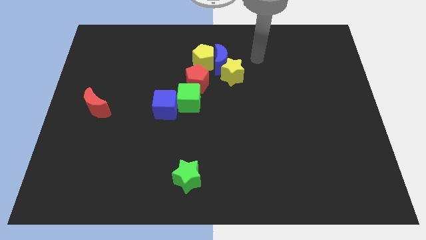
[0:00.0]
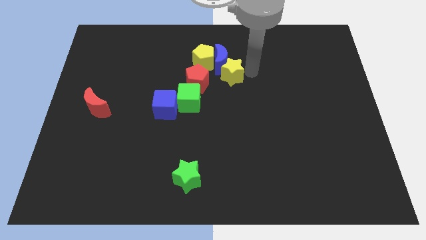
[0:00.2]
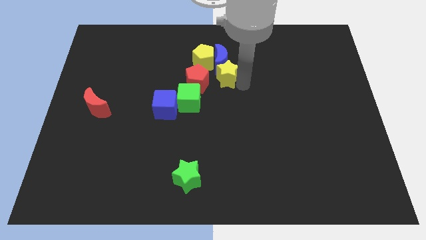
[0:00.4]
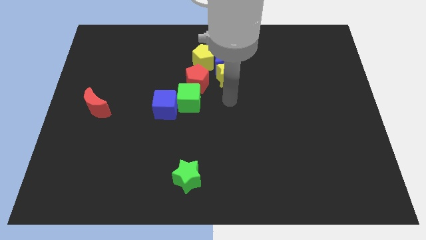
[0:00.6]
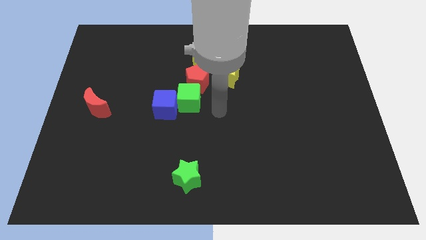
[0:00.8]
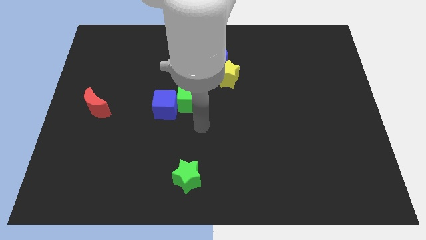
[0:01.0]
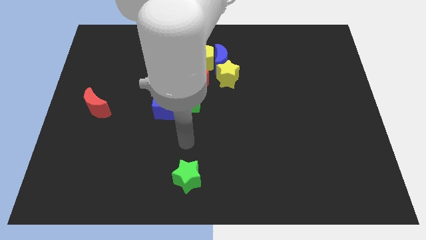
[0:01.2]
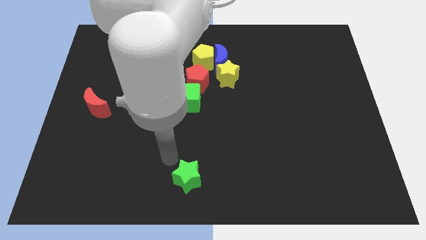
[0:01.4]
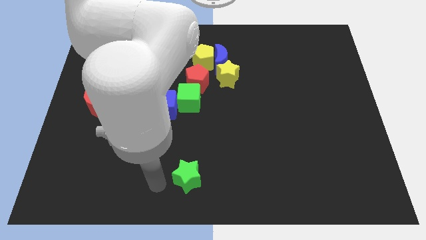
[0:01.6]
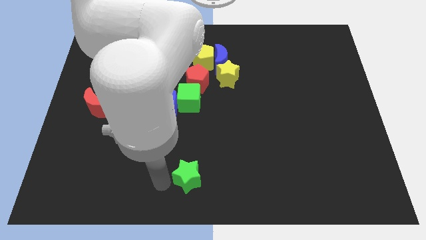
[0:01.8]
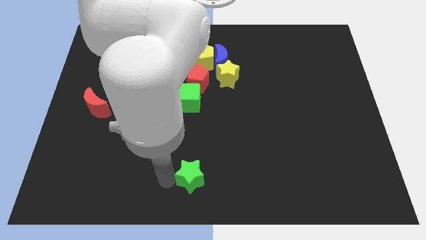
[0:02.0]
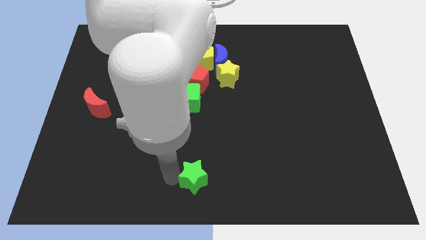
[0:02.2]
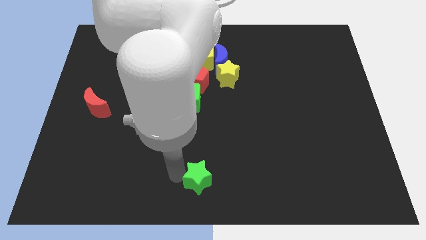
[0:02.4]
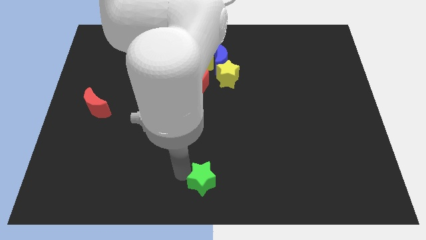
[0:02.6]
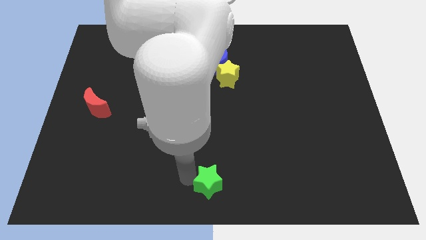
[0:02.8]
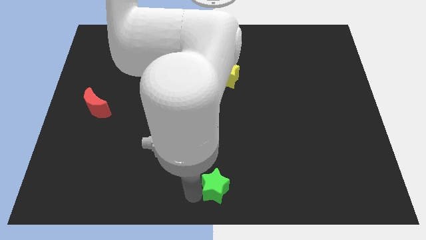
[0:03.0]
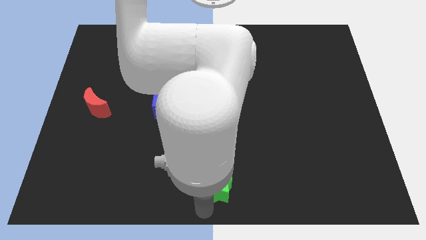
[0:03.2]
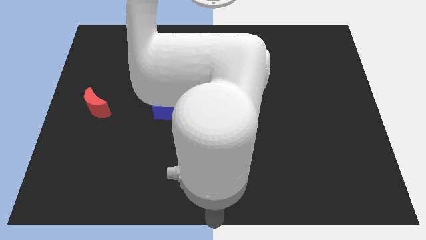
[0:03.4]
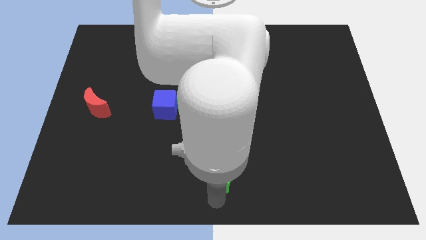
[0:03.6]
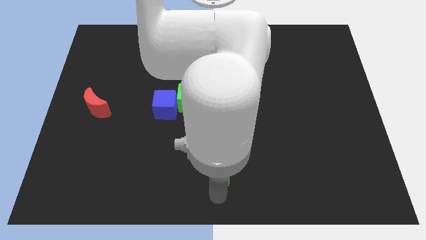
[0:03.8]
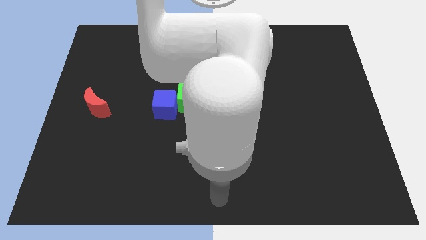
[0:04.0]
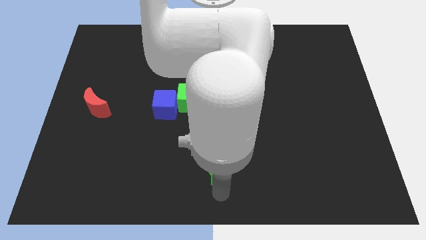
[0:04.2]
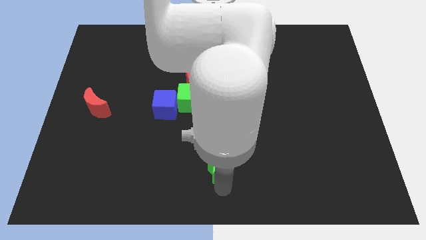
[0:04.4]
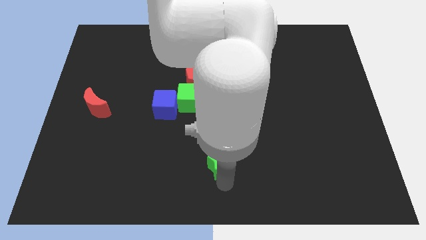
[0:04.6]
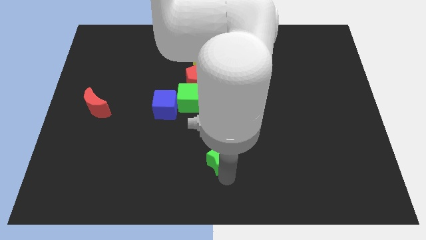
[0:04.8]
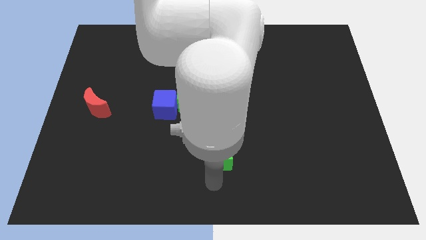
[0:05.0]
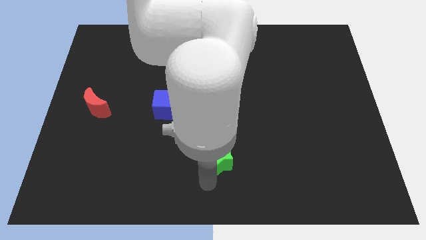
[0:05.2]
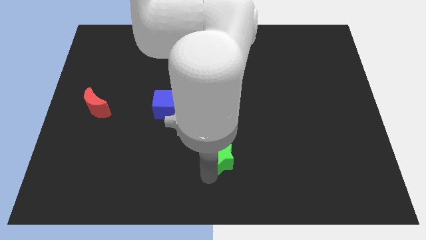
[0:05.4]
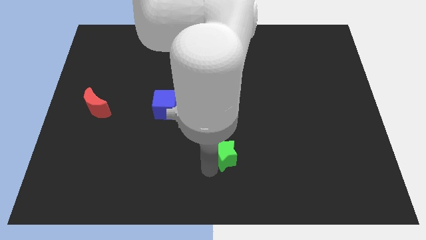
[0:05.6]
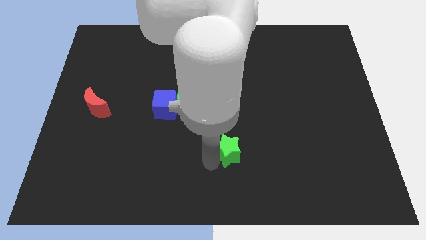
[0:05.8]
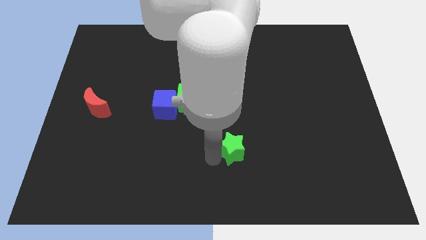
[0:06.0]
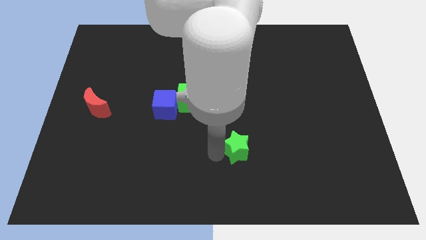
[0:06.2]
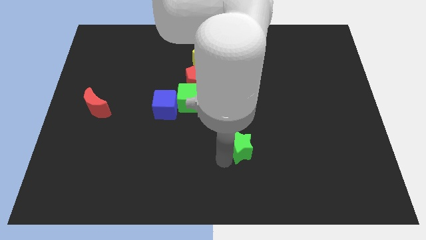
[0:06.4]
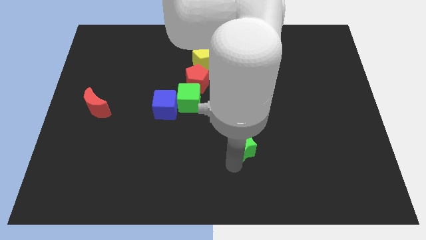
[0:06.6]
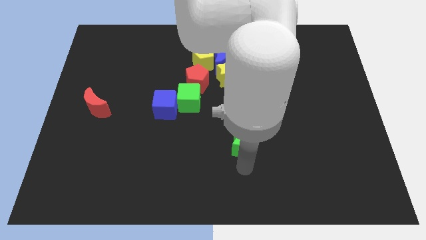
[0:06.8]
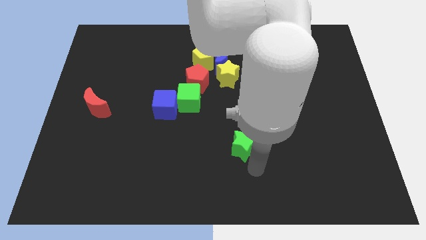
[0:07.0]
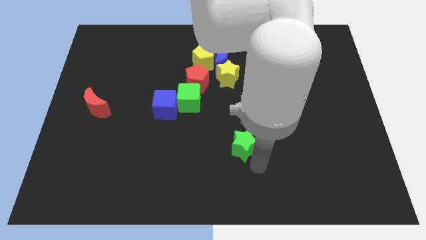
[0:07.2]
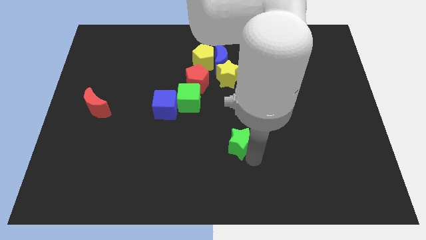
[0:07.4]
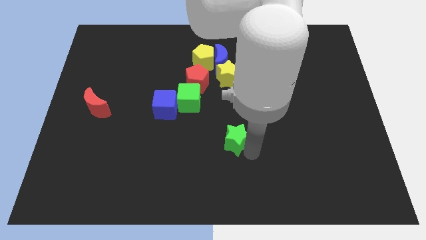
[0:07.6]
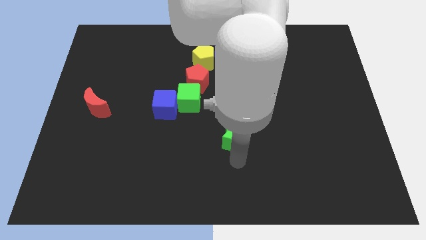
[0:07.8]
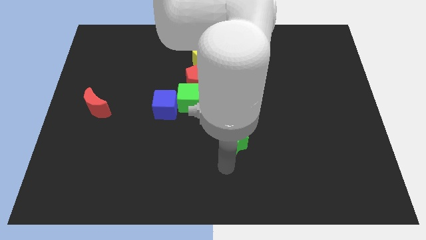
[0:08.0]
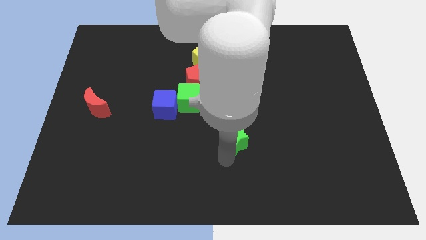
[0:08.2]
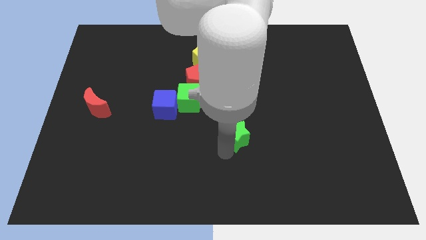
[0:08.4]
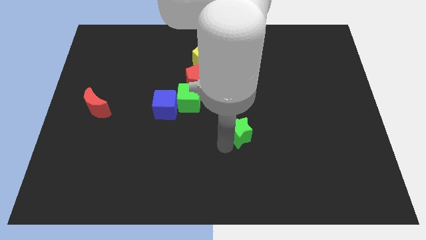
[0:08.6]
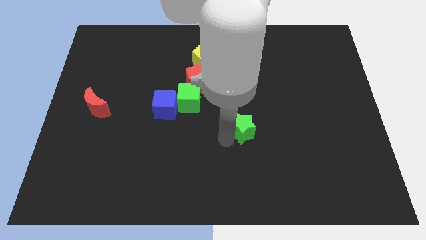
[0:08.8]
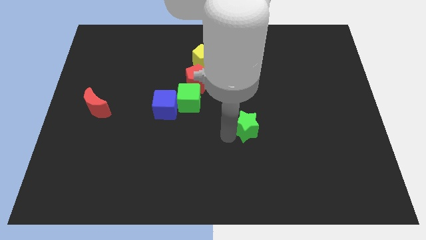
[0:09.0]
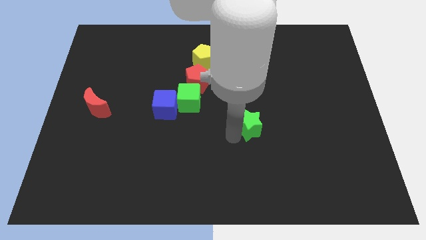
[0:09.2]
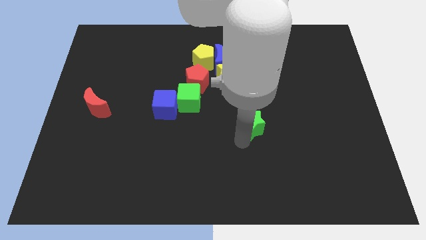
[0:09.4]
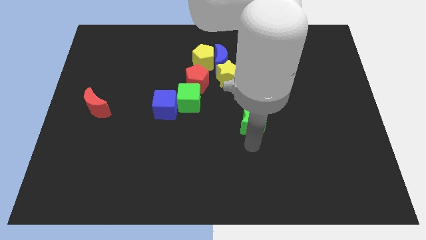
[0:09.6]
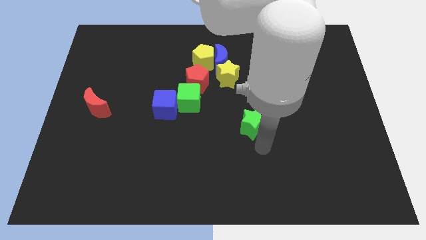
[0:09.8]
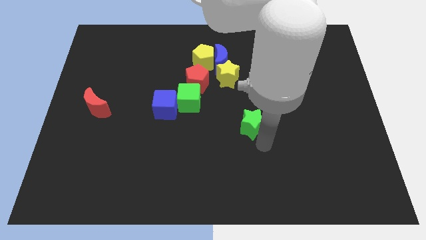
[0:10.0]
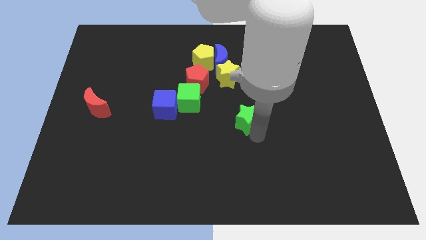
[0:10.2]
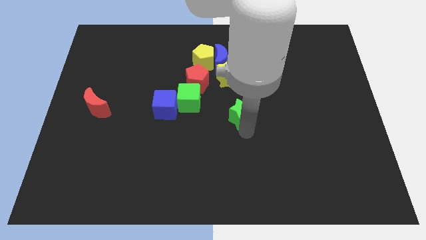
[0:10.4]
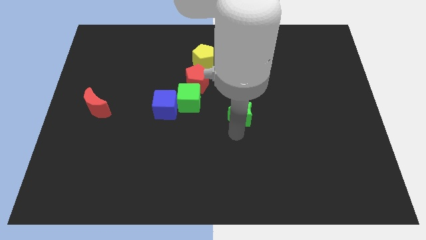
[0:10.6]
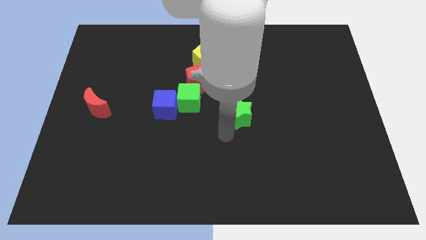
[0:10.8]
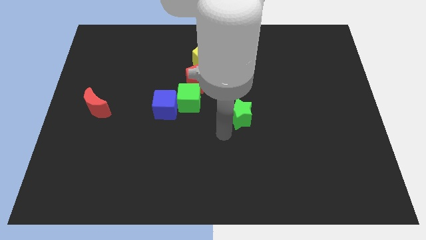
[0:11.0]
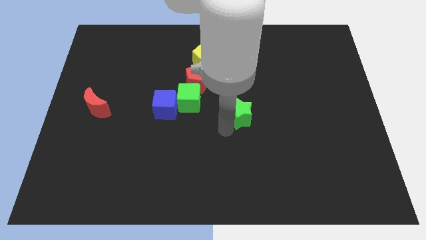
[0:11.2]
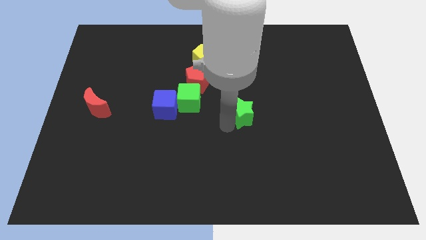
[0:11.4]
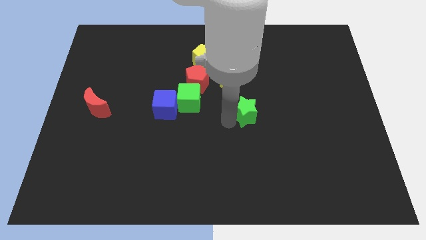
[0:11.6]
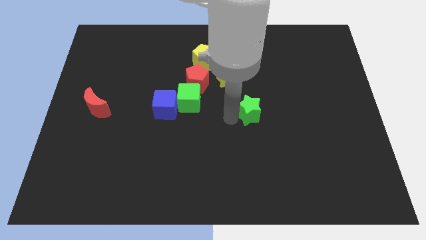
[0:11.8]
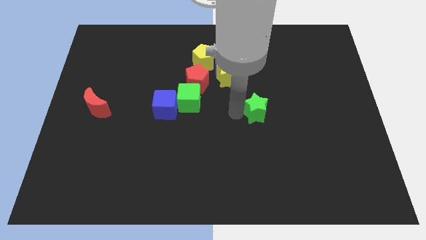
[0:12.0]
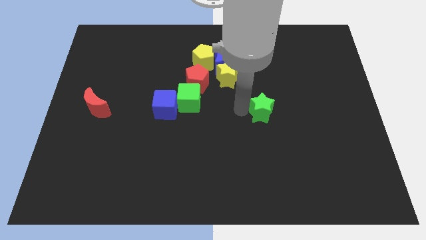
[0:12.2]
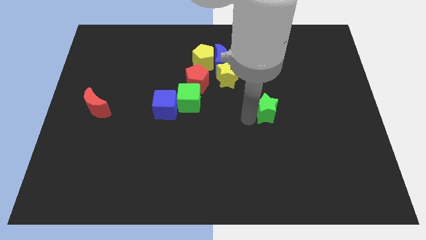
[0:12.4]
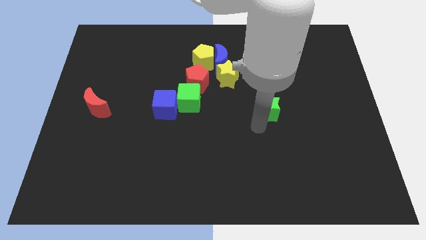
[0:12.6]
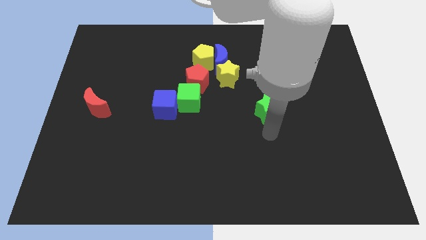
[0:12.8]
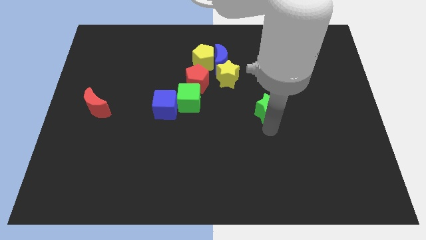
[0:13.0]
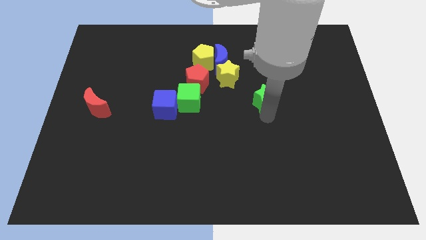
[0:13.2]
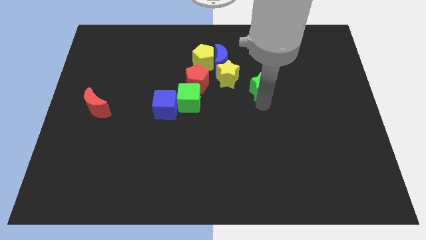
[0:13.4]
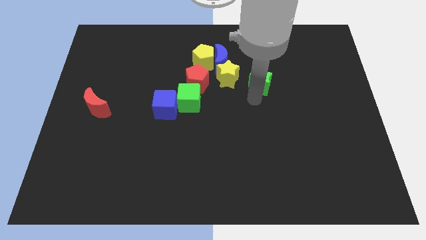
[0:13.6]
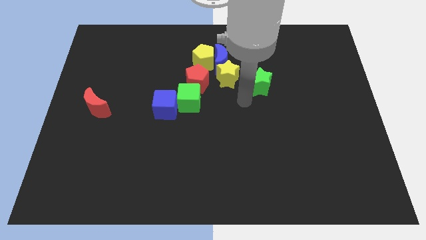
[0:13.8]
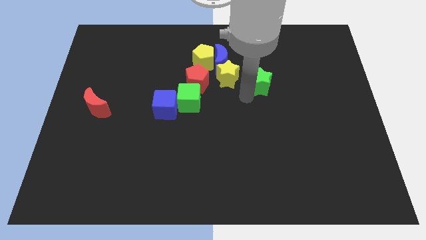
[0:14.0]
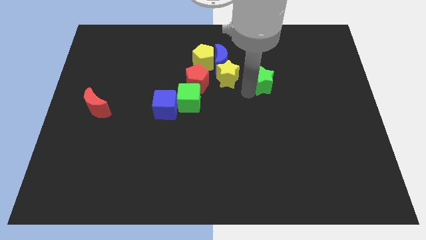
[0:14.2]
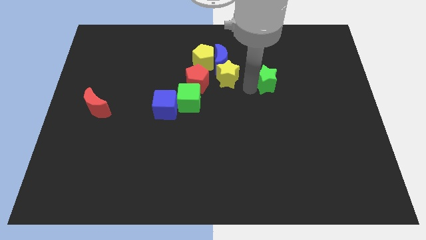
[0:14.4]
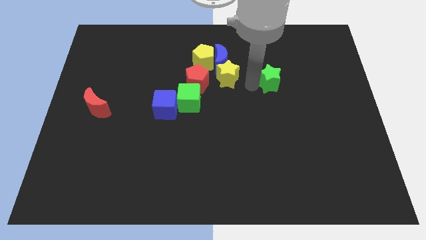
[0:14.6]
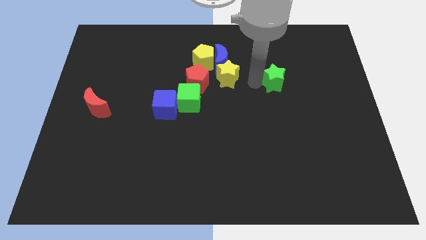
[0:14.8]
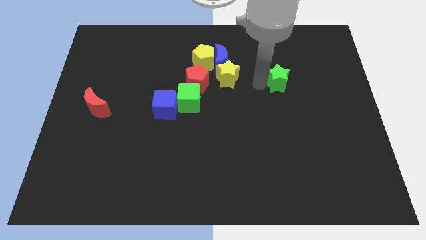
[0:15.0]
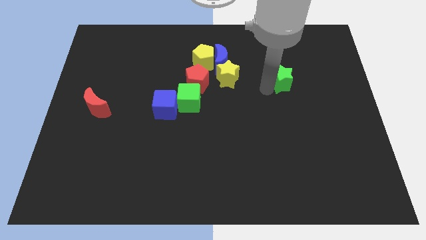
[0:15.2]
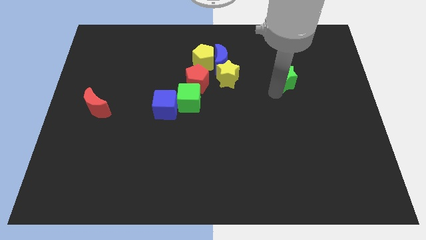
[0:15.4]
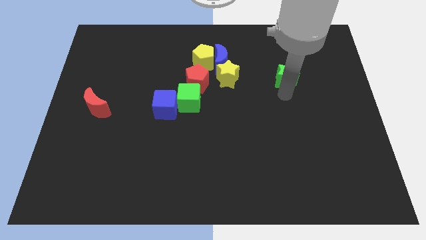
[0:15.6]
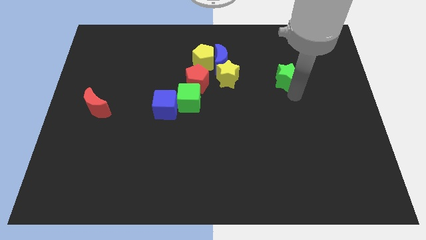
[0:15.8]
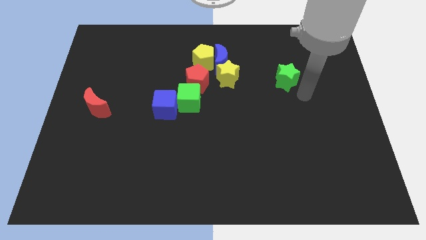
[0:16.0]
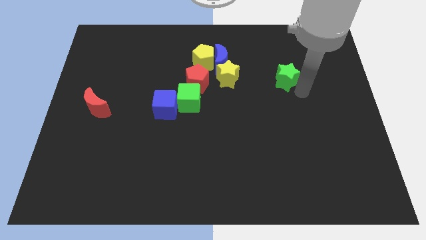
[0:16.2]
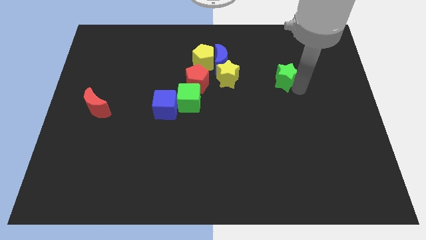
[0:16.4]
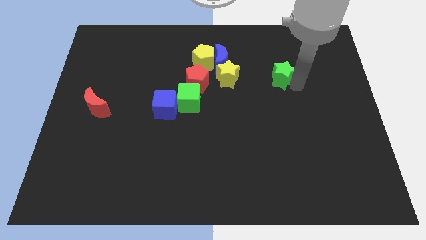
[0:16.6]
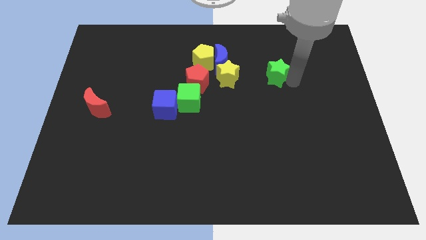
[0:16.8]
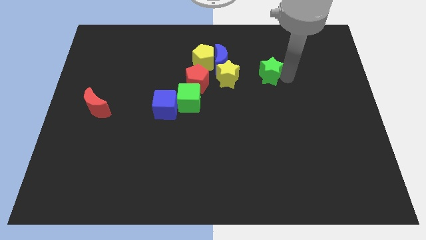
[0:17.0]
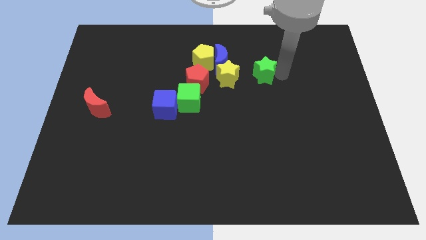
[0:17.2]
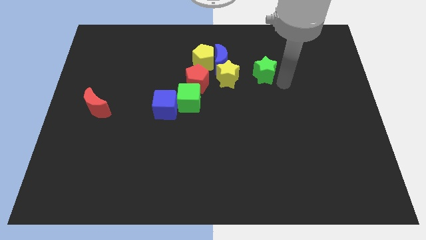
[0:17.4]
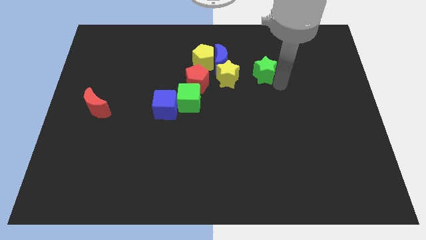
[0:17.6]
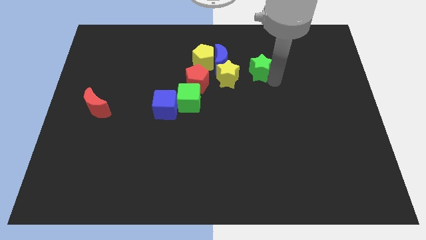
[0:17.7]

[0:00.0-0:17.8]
put the green star to the top right of the yellow star
